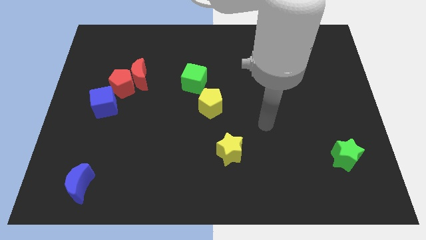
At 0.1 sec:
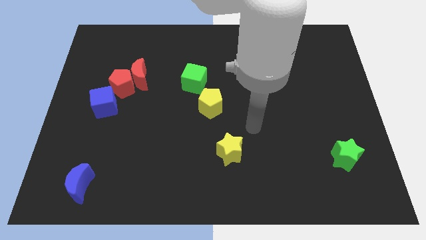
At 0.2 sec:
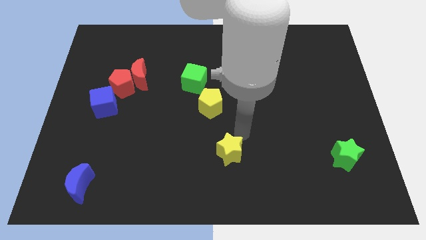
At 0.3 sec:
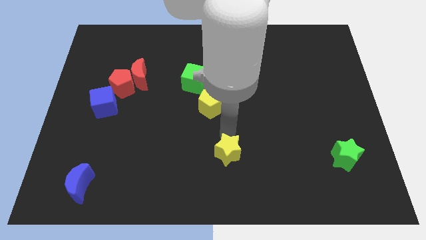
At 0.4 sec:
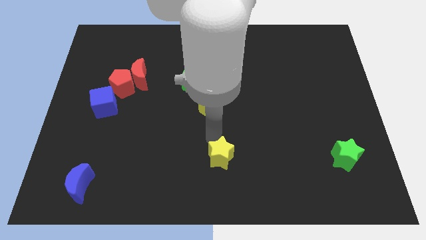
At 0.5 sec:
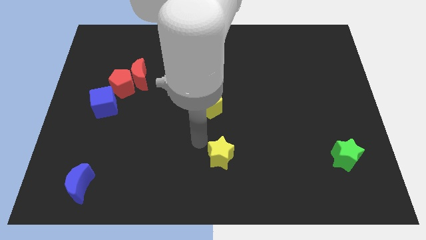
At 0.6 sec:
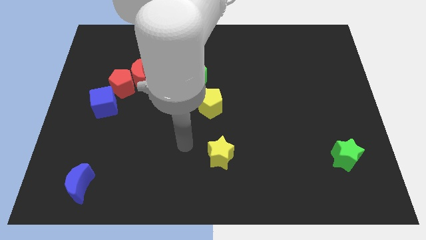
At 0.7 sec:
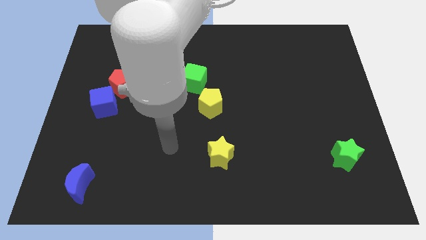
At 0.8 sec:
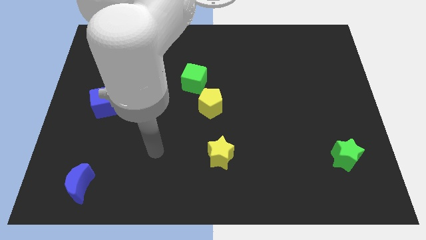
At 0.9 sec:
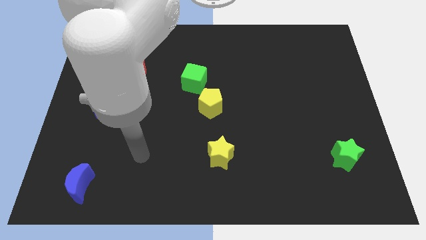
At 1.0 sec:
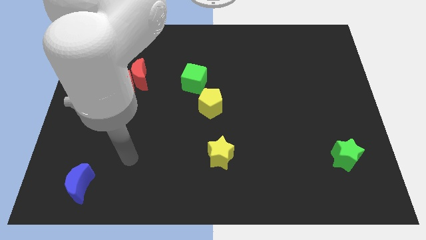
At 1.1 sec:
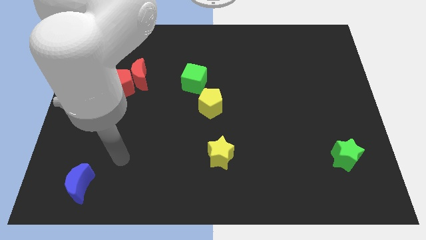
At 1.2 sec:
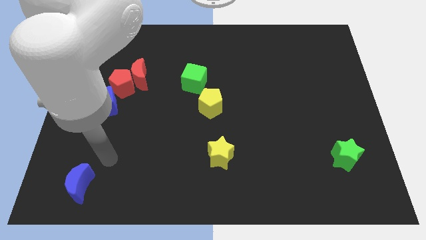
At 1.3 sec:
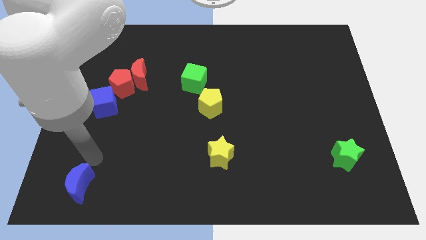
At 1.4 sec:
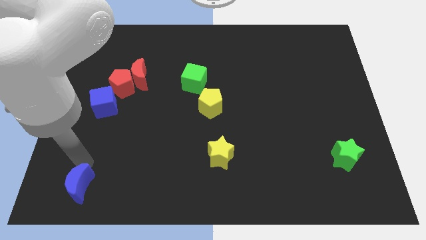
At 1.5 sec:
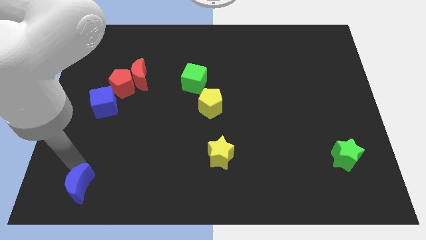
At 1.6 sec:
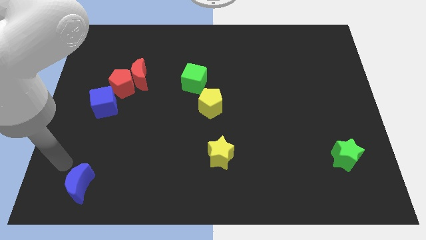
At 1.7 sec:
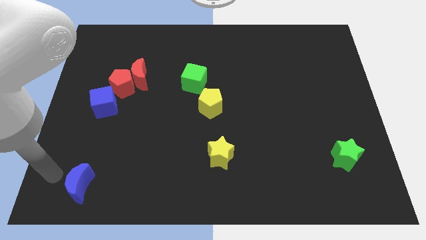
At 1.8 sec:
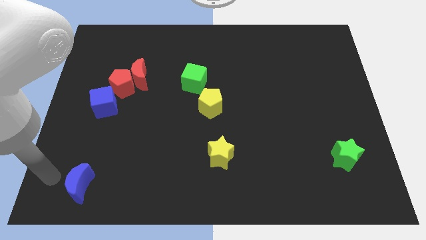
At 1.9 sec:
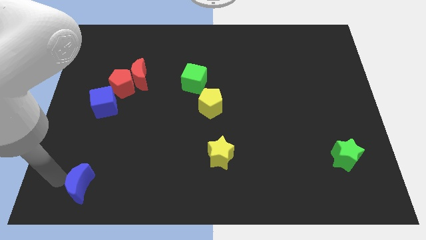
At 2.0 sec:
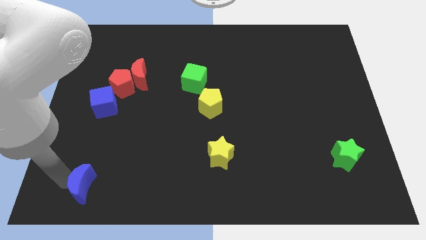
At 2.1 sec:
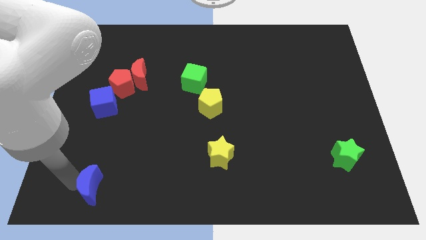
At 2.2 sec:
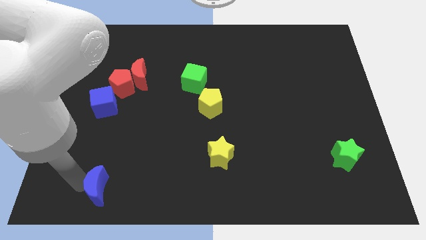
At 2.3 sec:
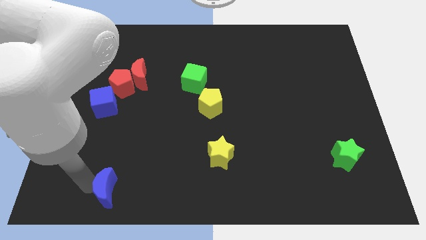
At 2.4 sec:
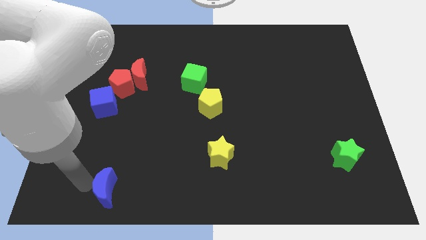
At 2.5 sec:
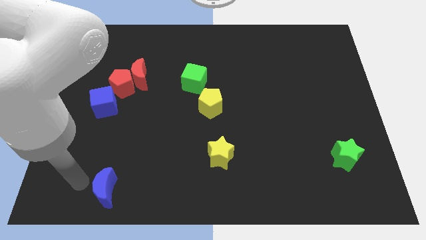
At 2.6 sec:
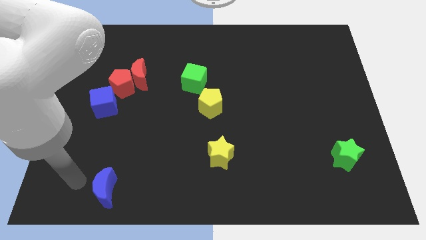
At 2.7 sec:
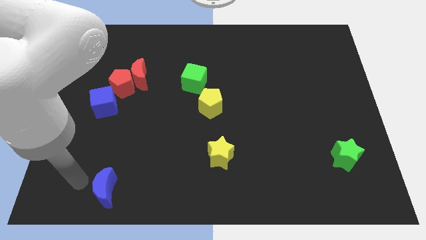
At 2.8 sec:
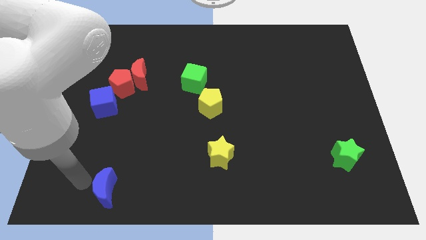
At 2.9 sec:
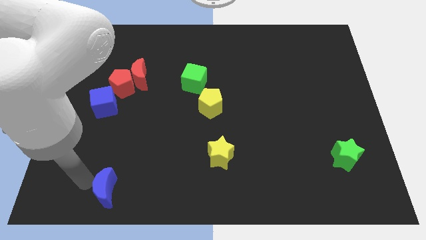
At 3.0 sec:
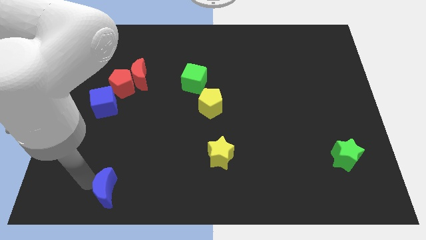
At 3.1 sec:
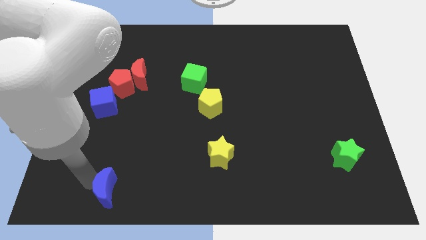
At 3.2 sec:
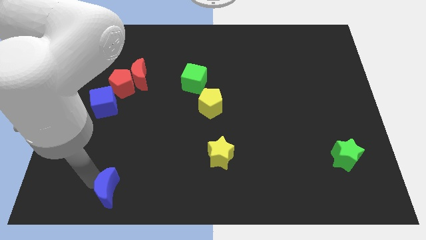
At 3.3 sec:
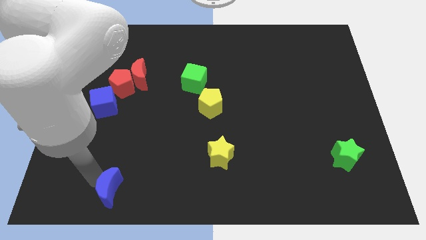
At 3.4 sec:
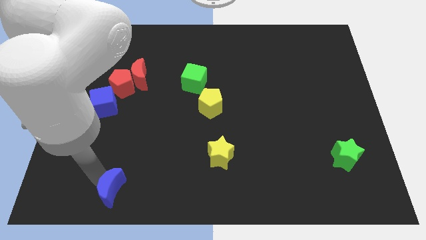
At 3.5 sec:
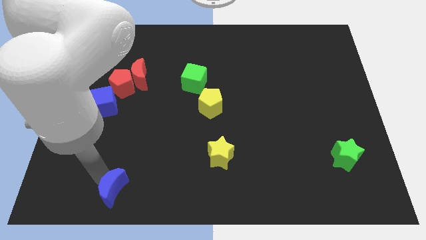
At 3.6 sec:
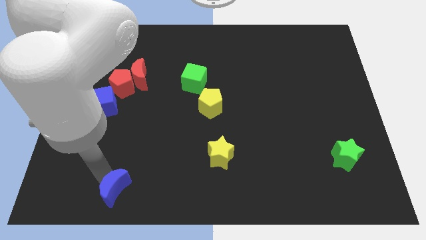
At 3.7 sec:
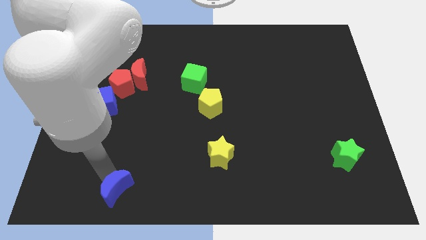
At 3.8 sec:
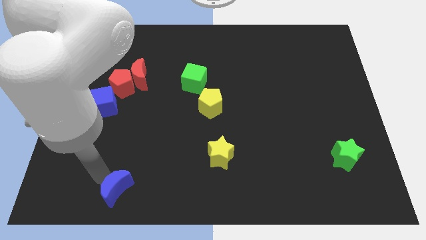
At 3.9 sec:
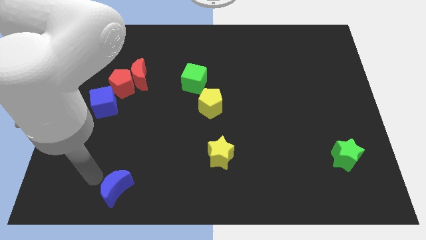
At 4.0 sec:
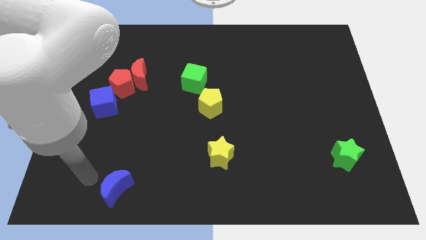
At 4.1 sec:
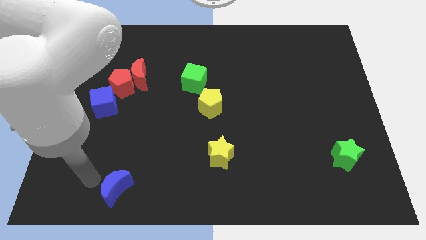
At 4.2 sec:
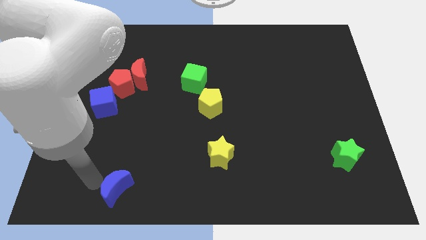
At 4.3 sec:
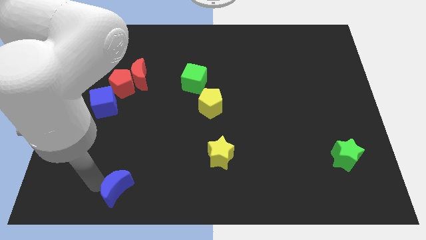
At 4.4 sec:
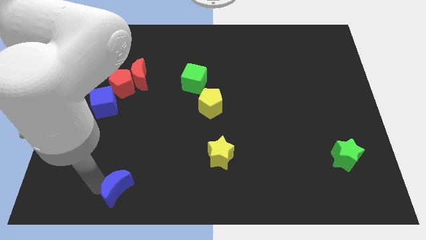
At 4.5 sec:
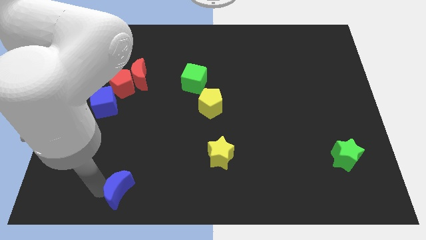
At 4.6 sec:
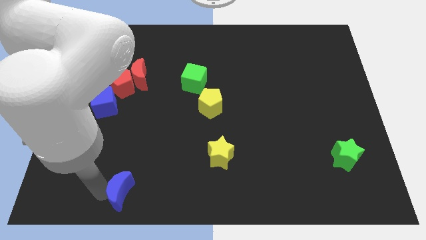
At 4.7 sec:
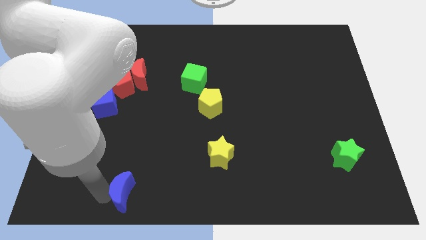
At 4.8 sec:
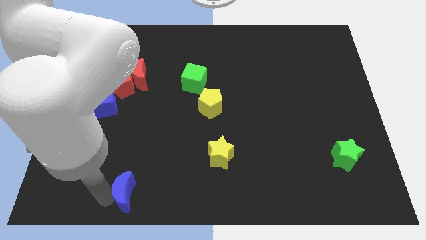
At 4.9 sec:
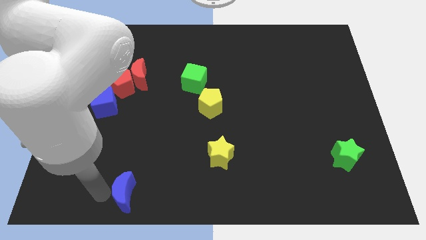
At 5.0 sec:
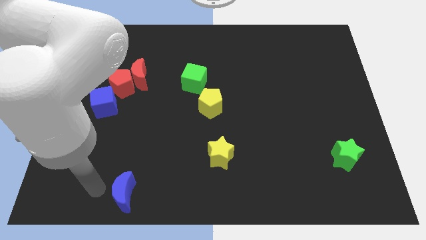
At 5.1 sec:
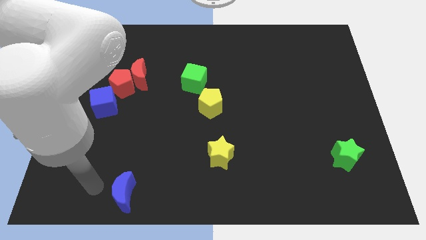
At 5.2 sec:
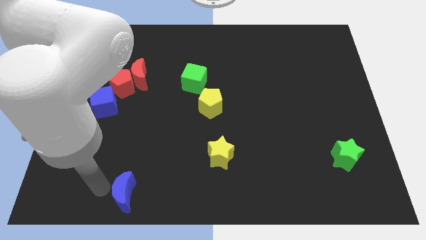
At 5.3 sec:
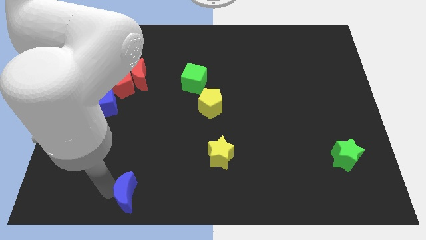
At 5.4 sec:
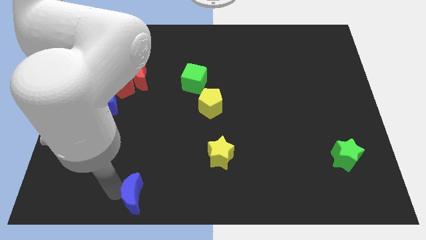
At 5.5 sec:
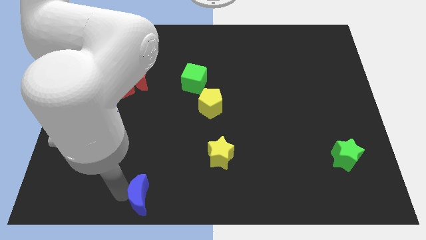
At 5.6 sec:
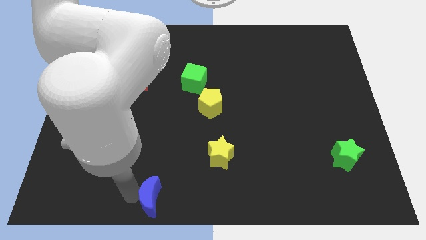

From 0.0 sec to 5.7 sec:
put the blue moon to the bottom
